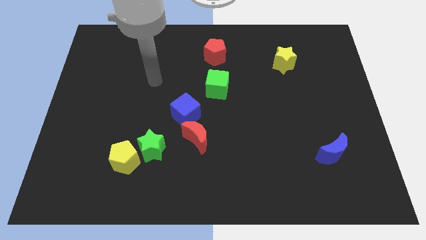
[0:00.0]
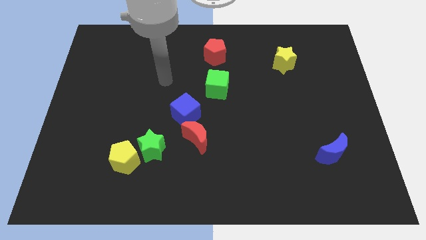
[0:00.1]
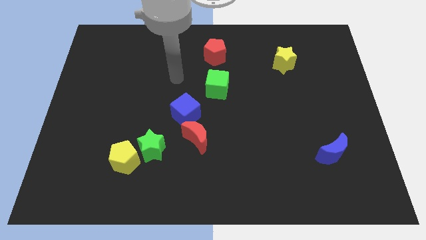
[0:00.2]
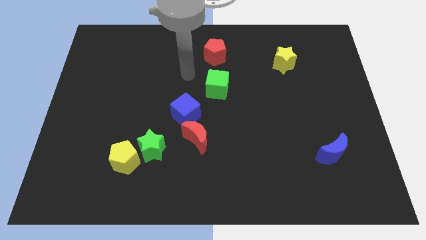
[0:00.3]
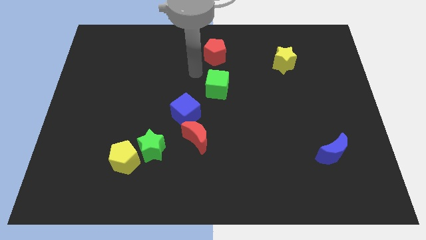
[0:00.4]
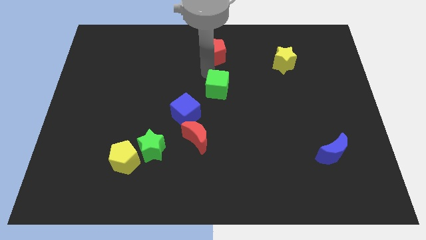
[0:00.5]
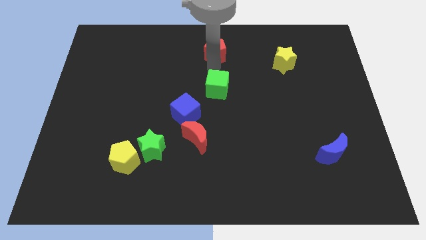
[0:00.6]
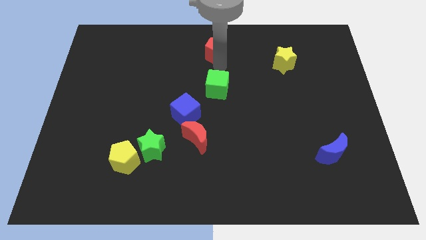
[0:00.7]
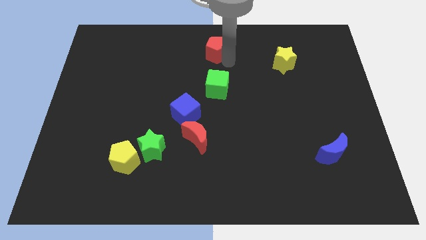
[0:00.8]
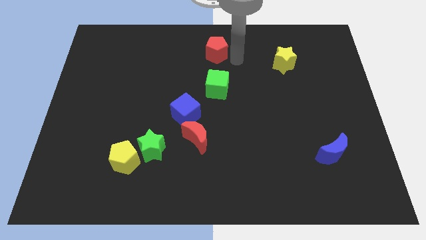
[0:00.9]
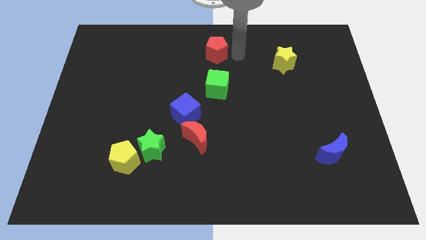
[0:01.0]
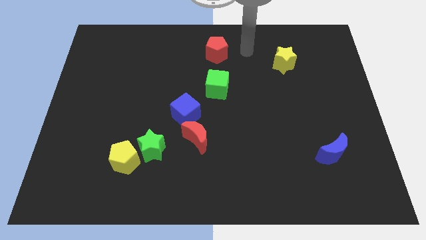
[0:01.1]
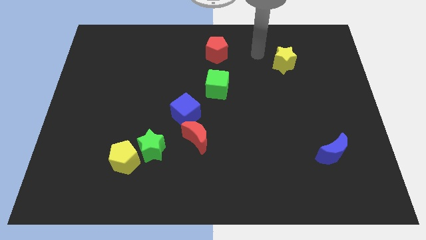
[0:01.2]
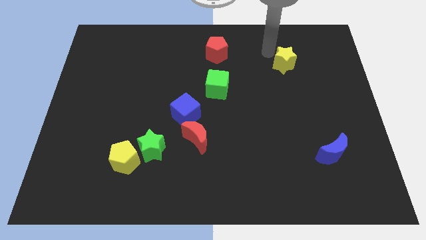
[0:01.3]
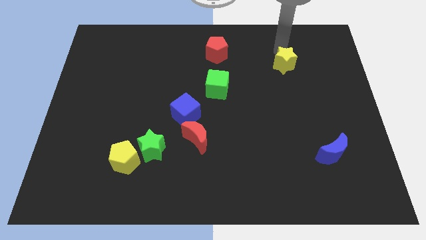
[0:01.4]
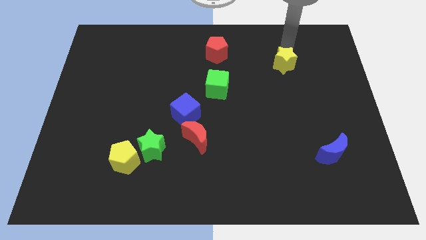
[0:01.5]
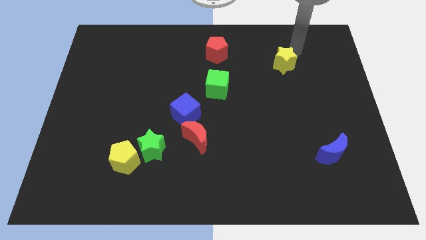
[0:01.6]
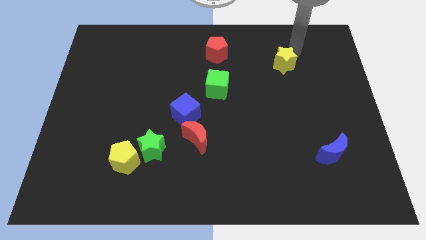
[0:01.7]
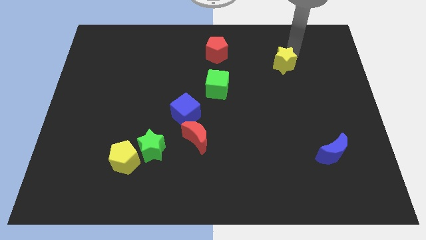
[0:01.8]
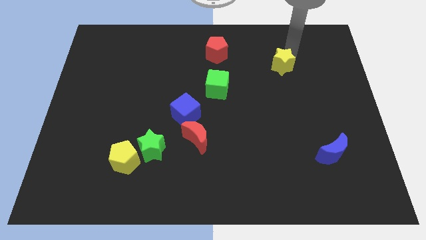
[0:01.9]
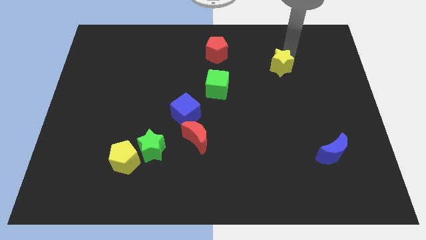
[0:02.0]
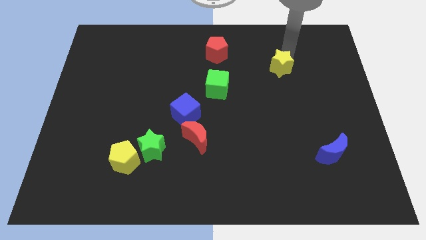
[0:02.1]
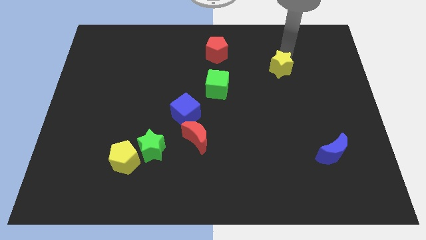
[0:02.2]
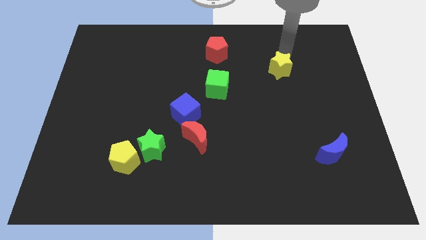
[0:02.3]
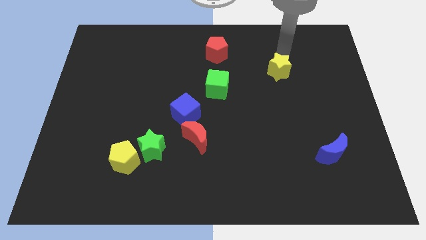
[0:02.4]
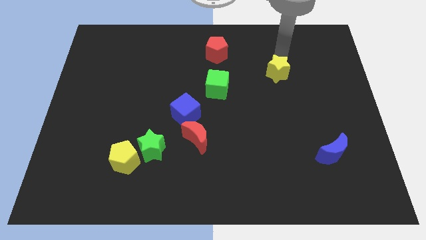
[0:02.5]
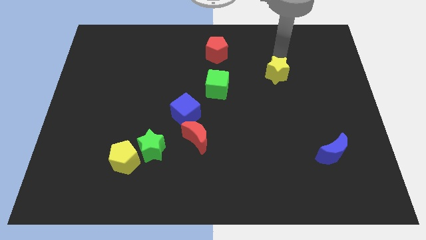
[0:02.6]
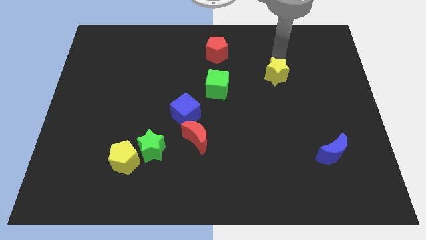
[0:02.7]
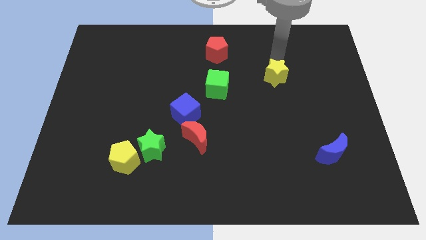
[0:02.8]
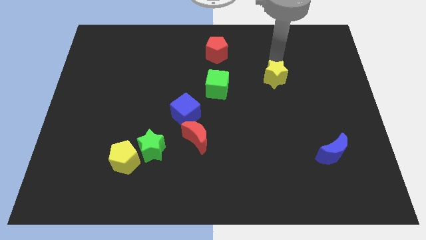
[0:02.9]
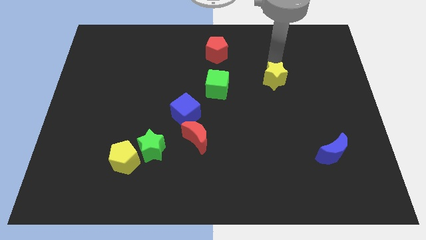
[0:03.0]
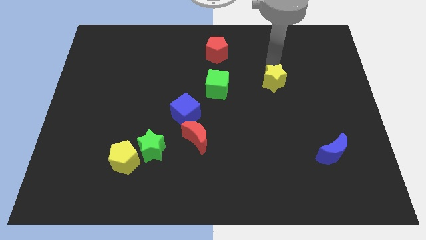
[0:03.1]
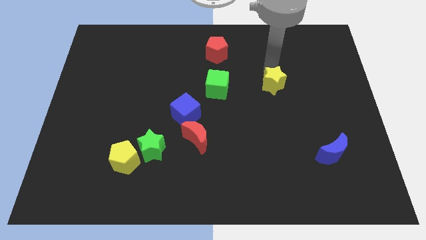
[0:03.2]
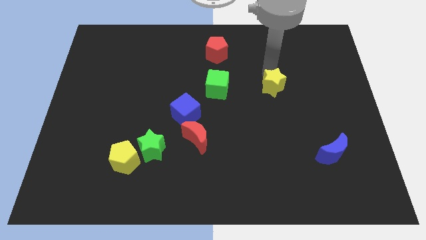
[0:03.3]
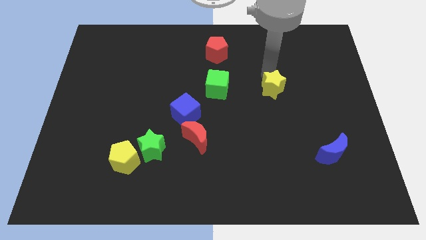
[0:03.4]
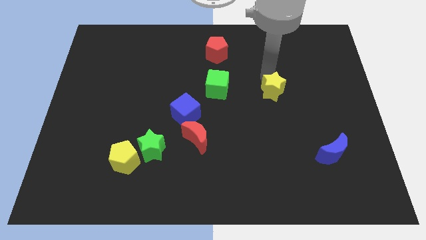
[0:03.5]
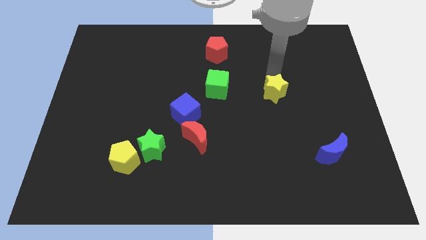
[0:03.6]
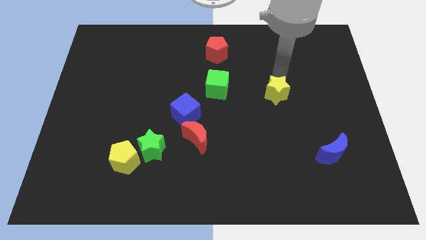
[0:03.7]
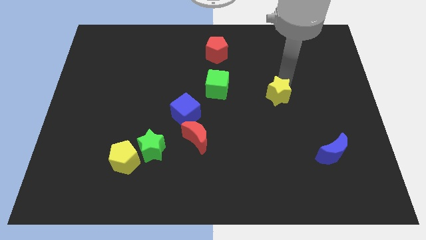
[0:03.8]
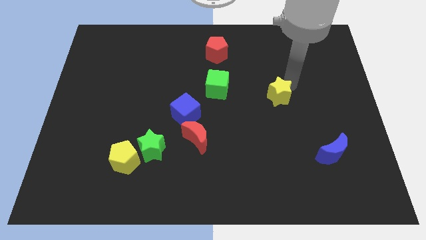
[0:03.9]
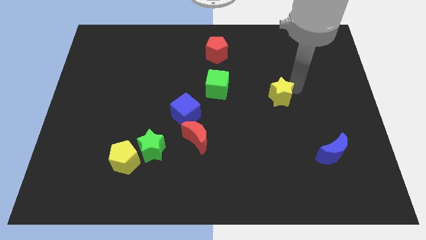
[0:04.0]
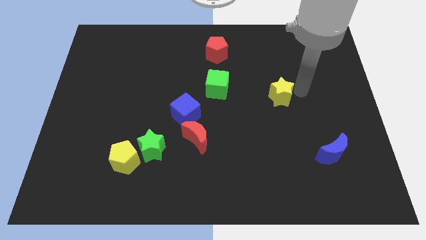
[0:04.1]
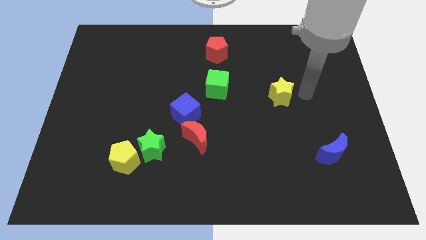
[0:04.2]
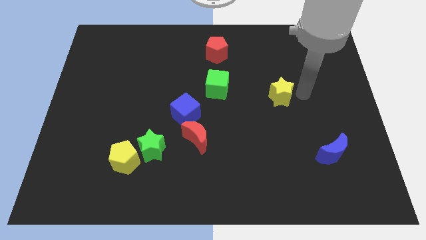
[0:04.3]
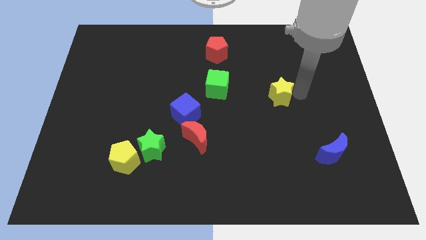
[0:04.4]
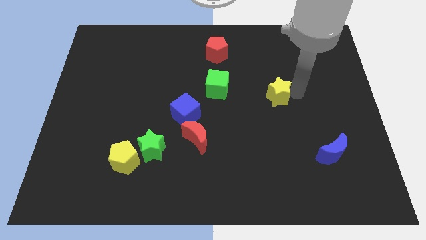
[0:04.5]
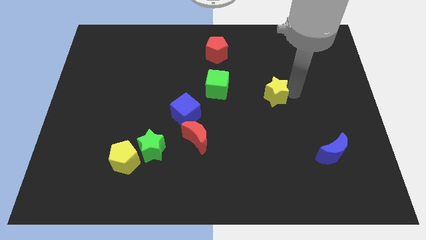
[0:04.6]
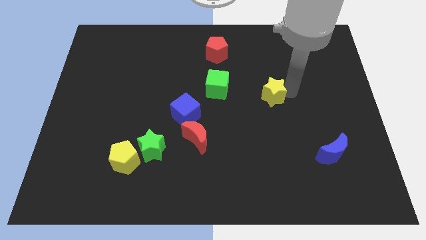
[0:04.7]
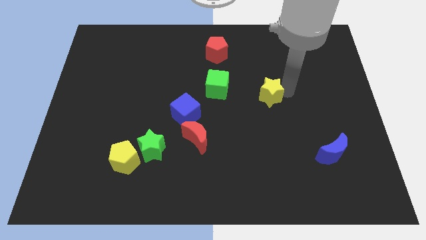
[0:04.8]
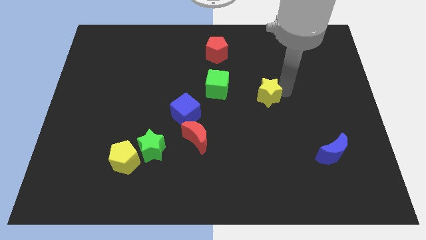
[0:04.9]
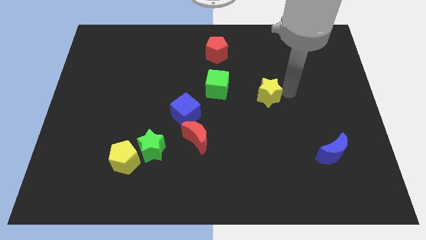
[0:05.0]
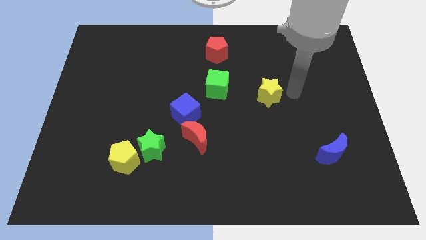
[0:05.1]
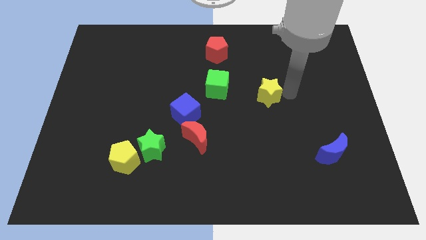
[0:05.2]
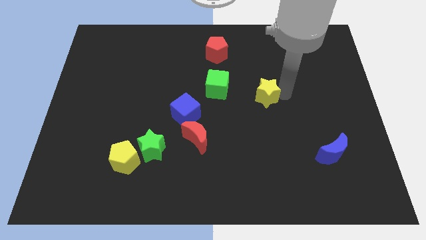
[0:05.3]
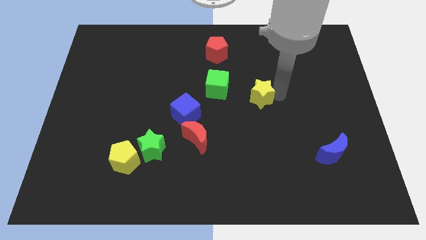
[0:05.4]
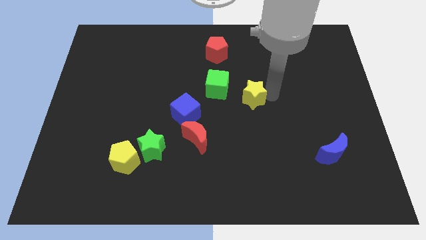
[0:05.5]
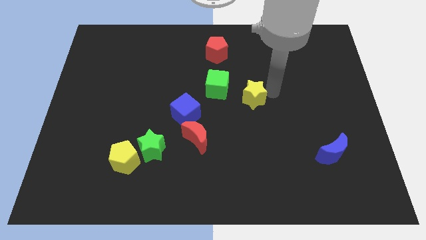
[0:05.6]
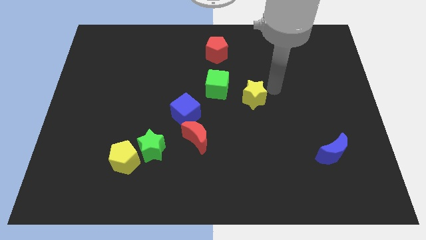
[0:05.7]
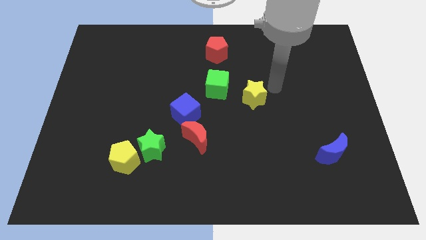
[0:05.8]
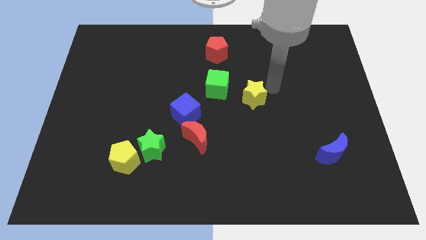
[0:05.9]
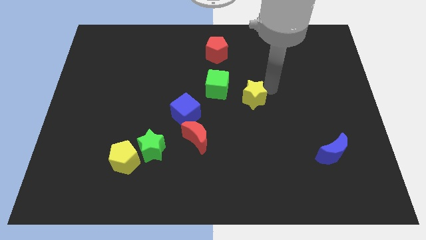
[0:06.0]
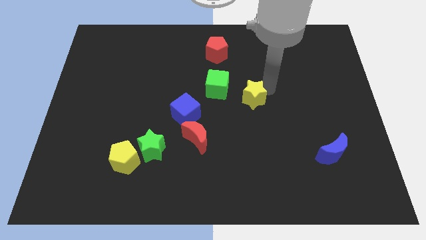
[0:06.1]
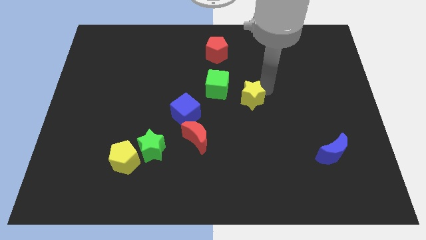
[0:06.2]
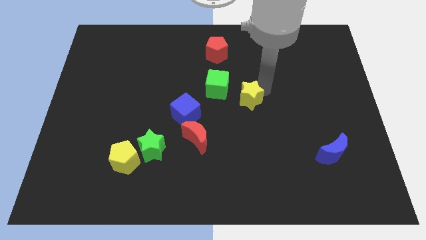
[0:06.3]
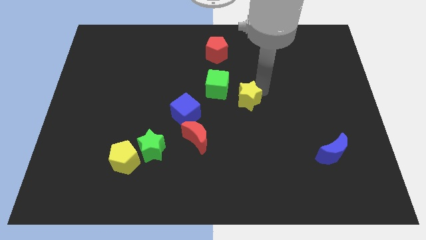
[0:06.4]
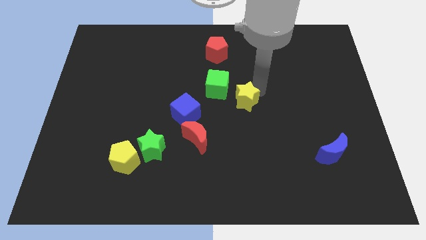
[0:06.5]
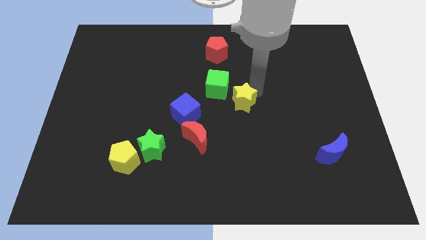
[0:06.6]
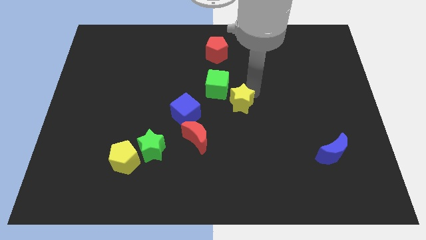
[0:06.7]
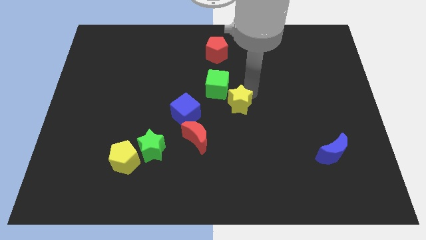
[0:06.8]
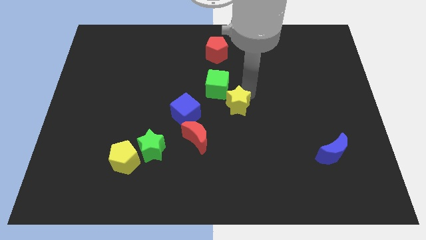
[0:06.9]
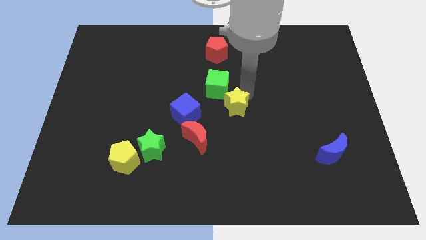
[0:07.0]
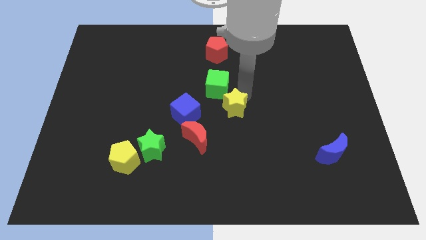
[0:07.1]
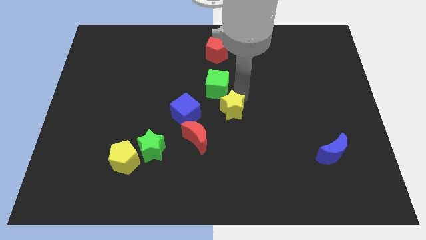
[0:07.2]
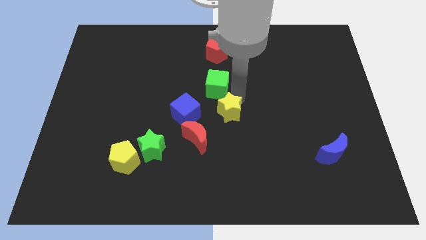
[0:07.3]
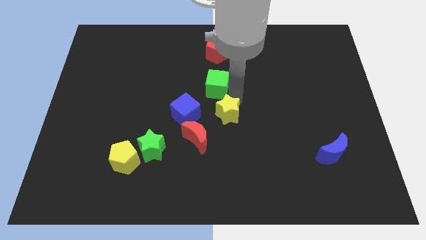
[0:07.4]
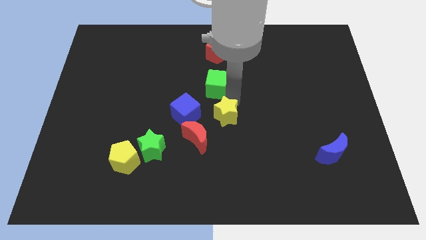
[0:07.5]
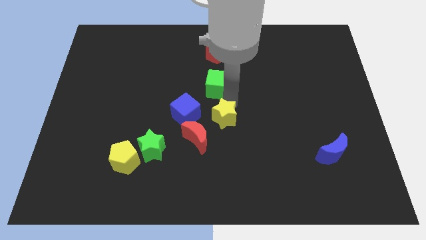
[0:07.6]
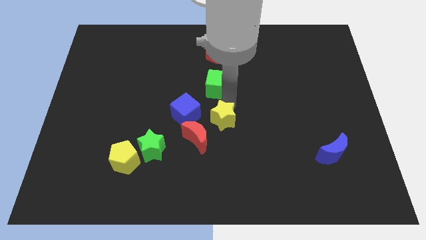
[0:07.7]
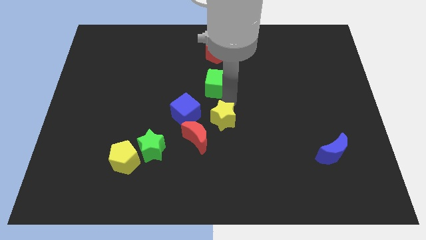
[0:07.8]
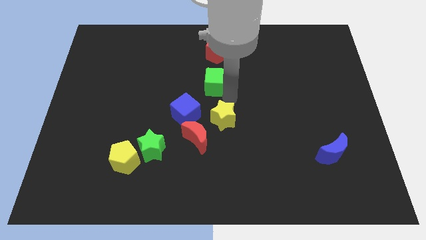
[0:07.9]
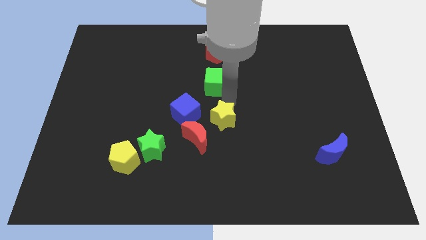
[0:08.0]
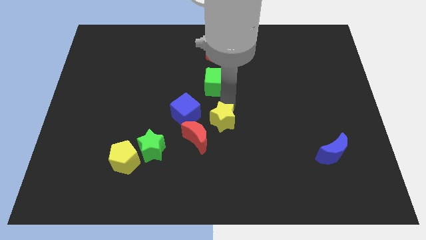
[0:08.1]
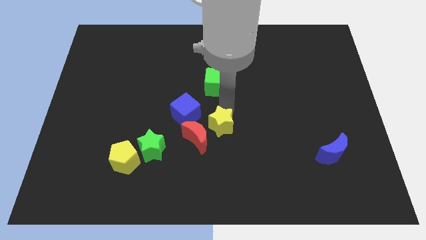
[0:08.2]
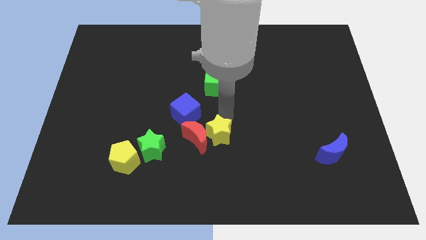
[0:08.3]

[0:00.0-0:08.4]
move the yellow star right of the green star
